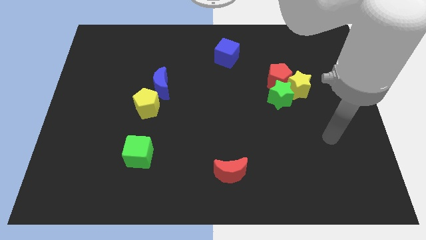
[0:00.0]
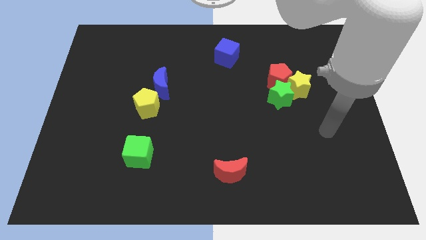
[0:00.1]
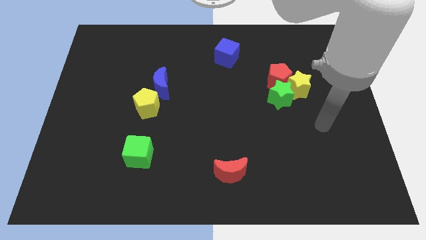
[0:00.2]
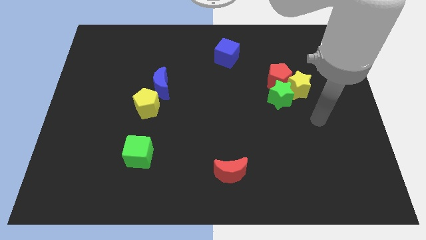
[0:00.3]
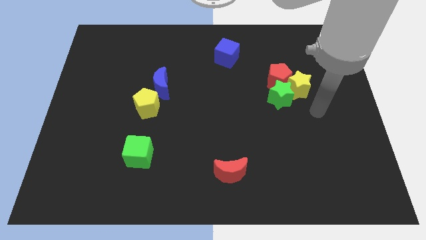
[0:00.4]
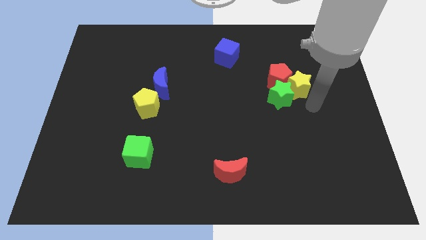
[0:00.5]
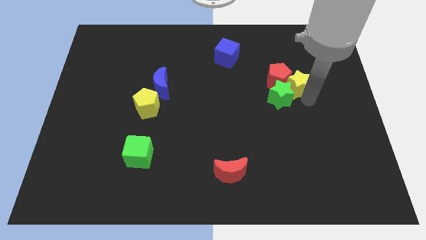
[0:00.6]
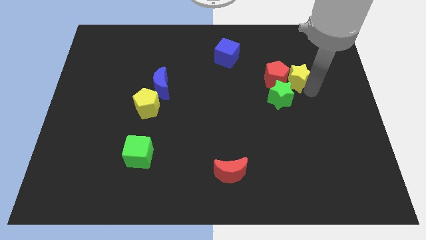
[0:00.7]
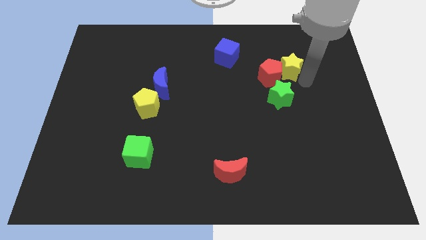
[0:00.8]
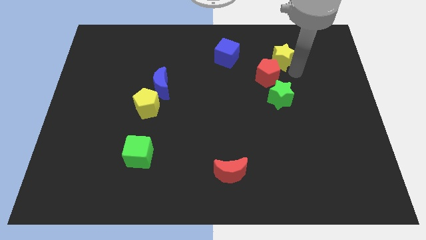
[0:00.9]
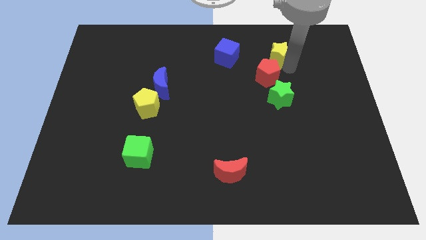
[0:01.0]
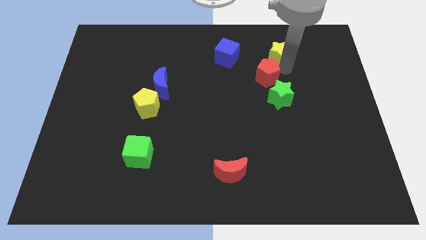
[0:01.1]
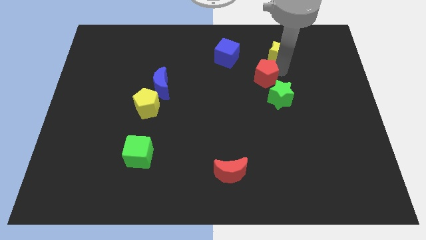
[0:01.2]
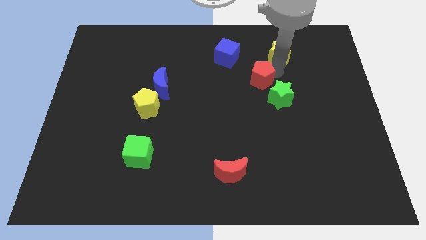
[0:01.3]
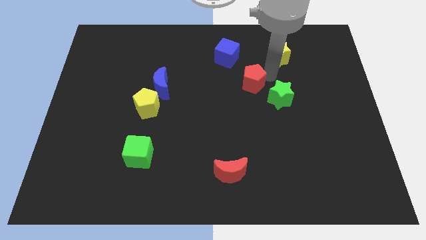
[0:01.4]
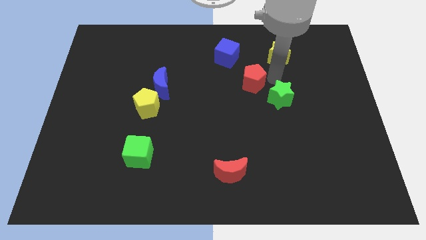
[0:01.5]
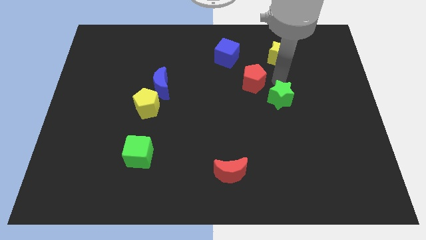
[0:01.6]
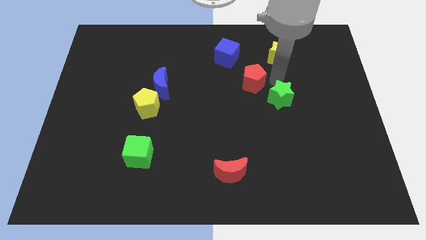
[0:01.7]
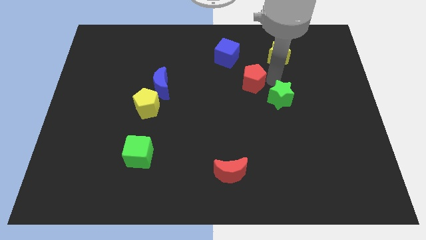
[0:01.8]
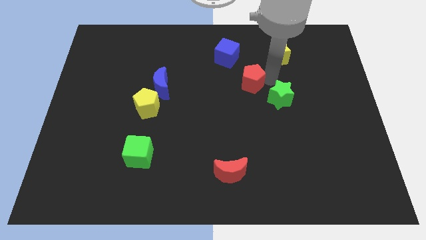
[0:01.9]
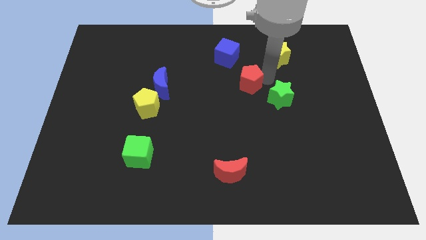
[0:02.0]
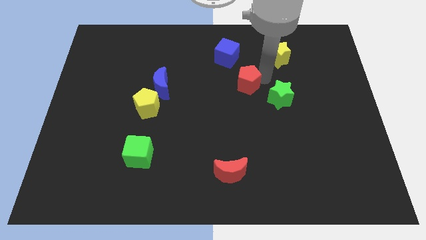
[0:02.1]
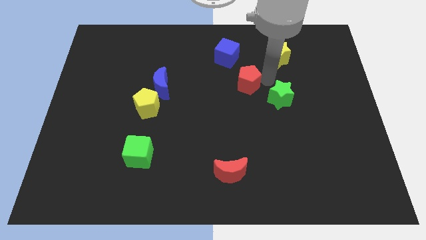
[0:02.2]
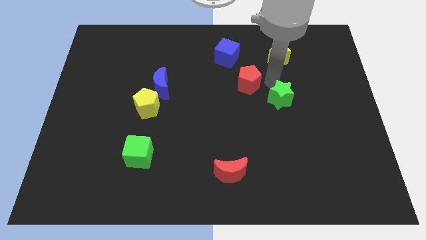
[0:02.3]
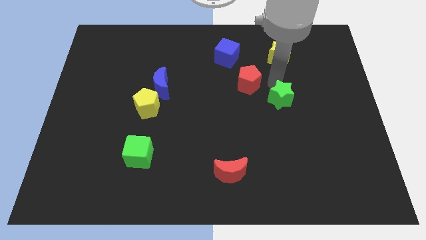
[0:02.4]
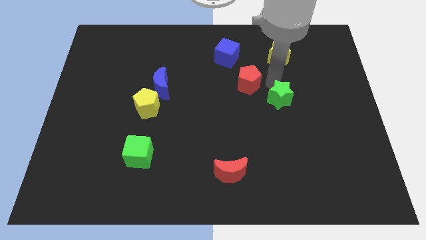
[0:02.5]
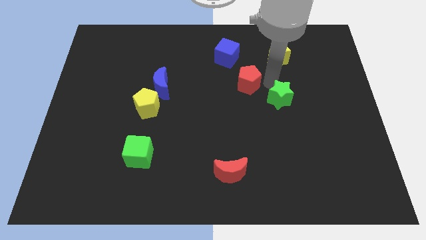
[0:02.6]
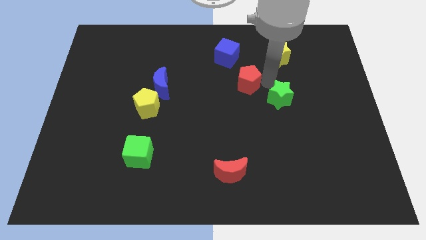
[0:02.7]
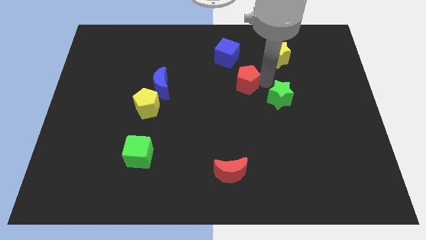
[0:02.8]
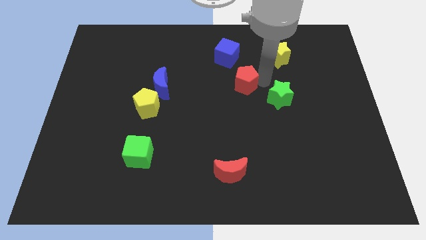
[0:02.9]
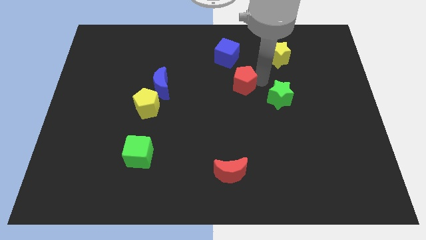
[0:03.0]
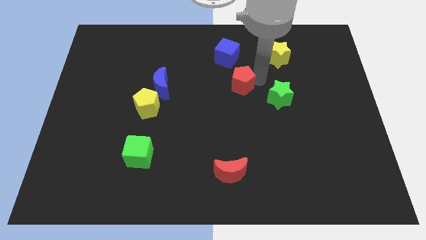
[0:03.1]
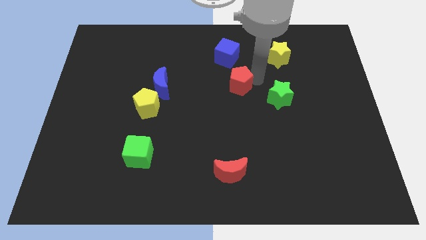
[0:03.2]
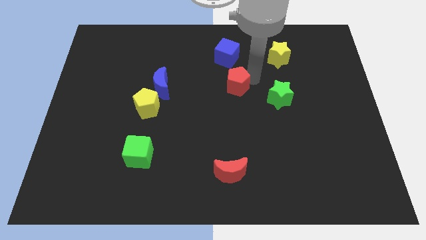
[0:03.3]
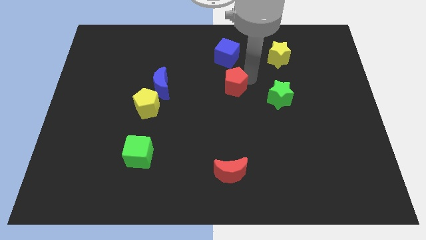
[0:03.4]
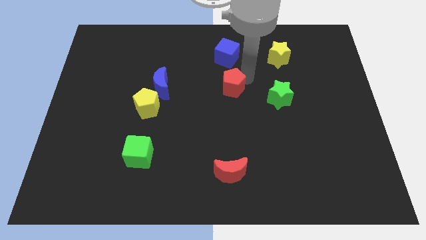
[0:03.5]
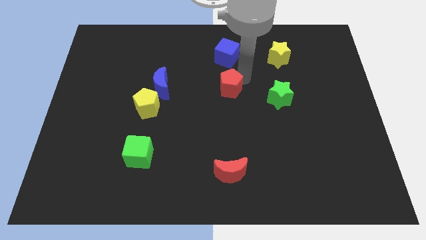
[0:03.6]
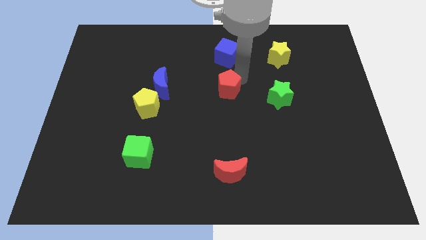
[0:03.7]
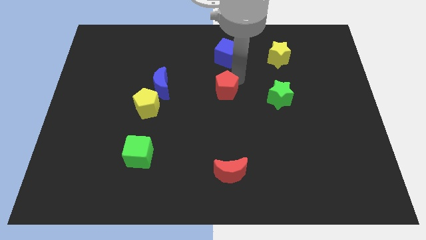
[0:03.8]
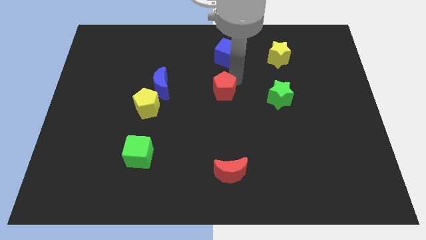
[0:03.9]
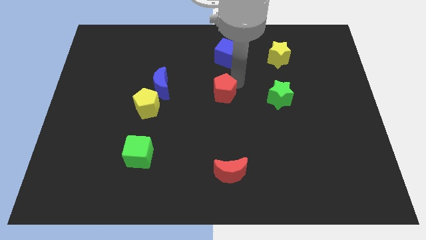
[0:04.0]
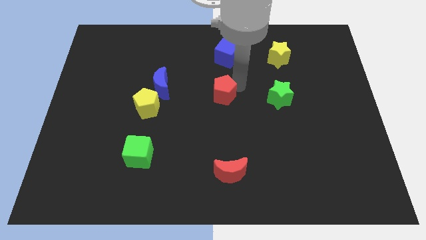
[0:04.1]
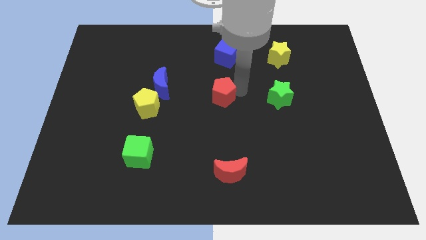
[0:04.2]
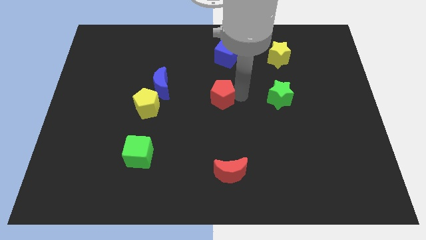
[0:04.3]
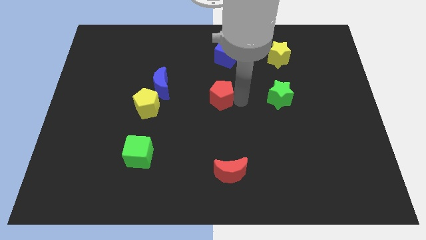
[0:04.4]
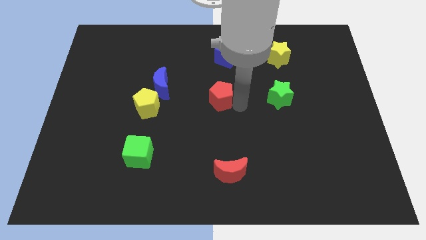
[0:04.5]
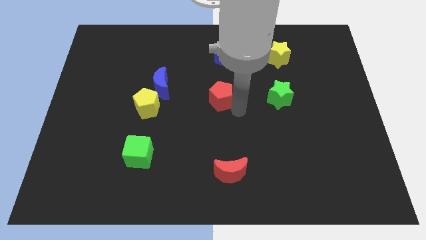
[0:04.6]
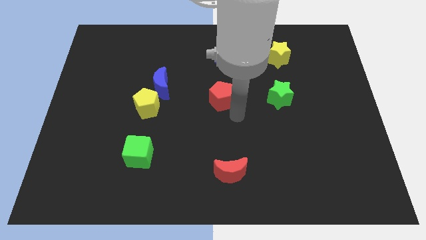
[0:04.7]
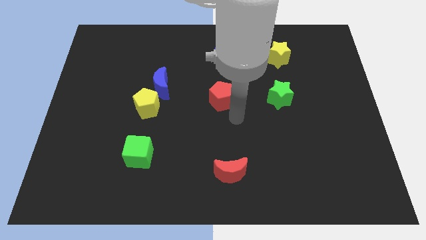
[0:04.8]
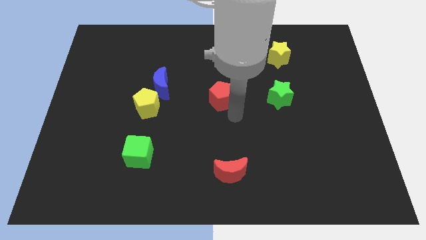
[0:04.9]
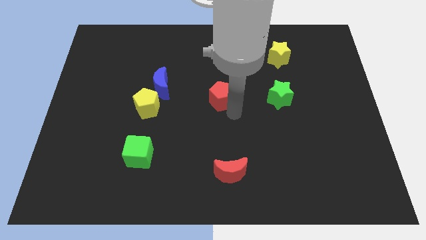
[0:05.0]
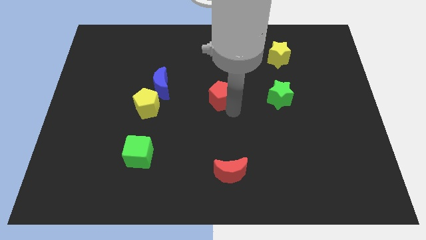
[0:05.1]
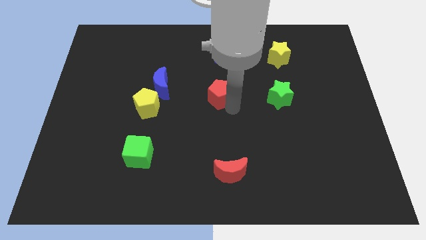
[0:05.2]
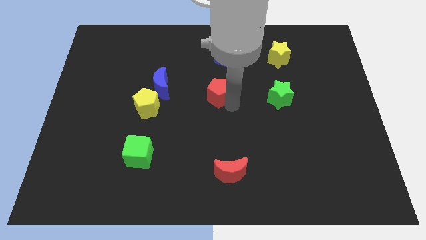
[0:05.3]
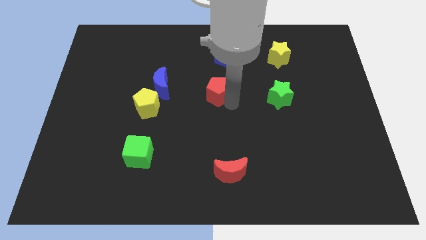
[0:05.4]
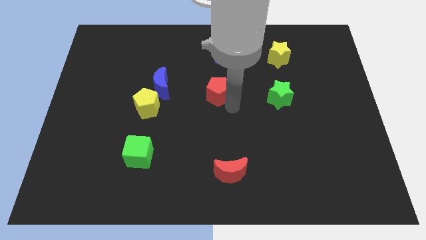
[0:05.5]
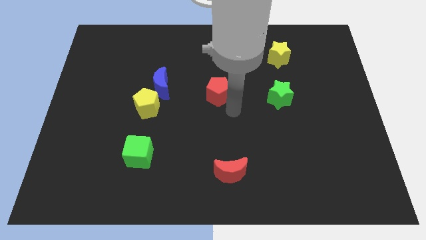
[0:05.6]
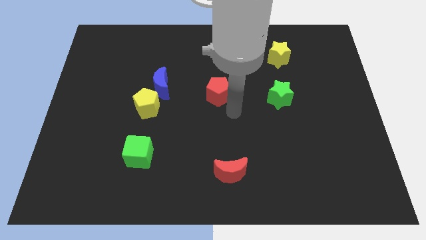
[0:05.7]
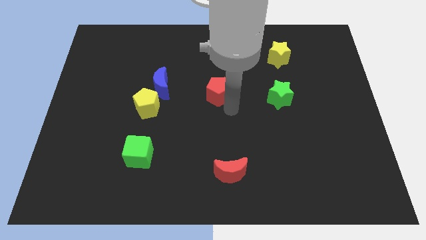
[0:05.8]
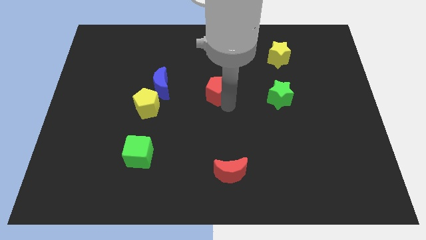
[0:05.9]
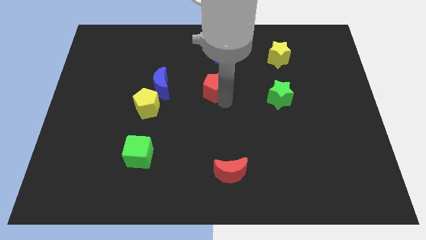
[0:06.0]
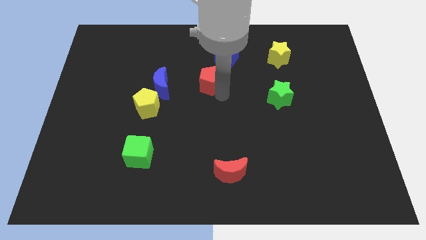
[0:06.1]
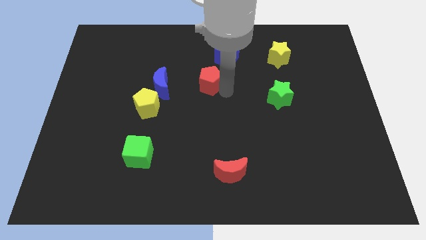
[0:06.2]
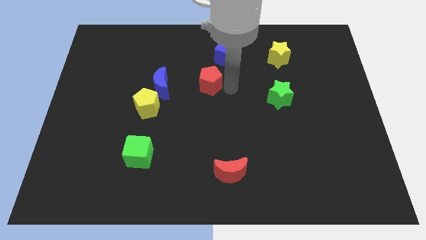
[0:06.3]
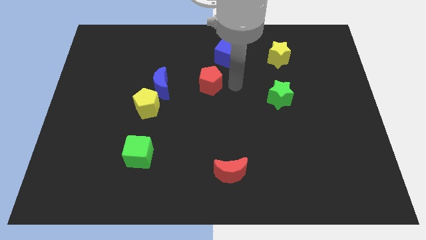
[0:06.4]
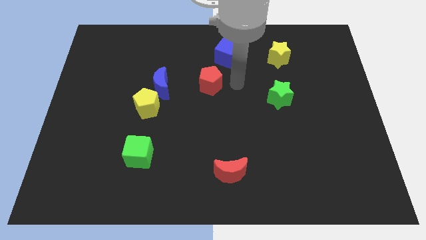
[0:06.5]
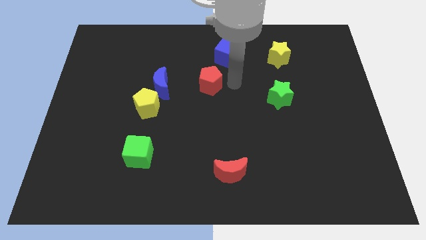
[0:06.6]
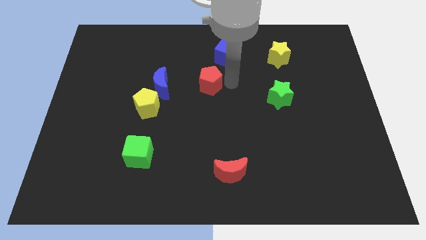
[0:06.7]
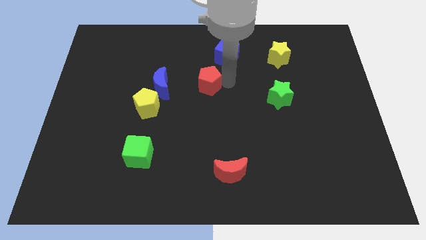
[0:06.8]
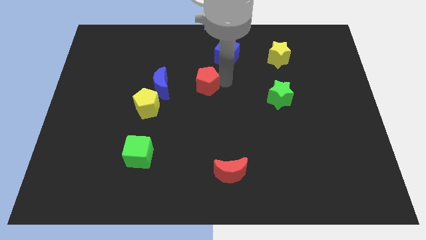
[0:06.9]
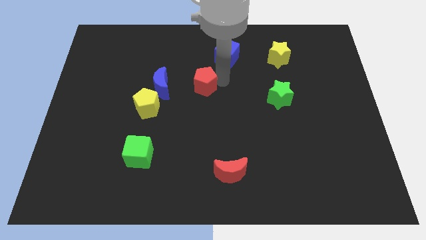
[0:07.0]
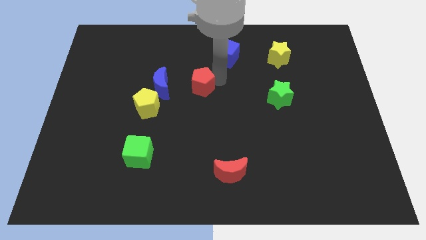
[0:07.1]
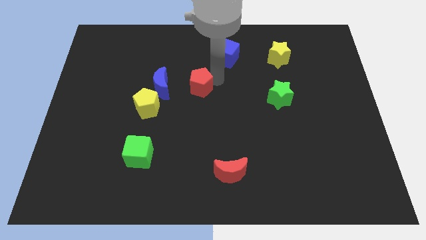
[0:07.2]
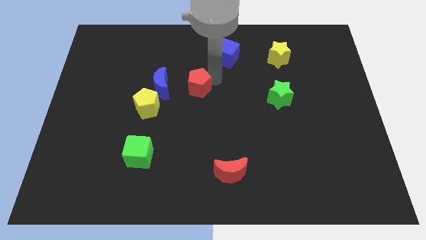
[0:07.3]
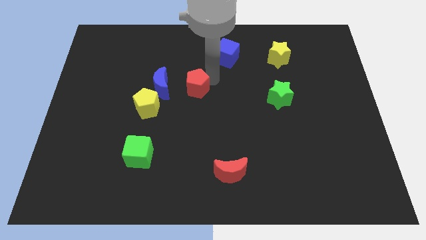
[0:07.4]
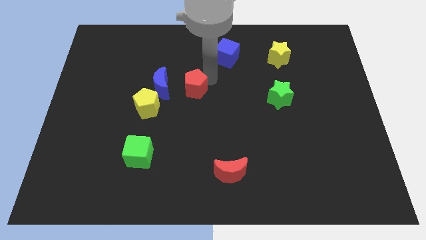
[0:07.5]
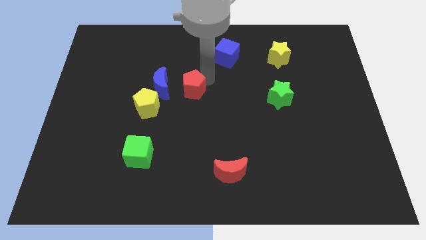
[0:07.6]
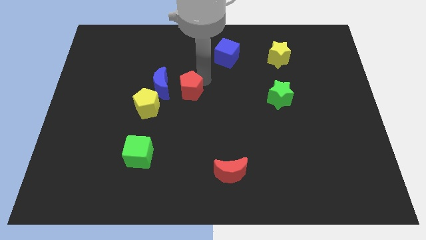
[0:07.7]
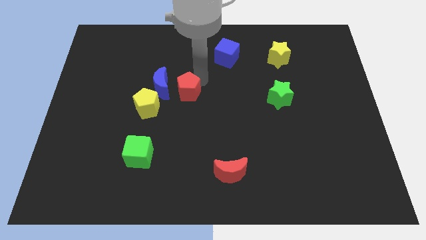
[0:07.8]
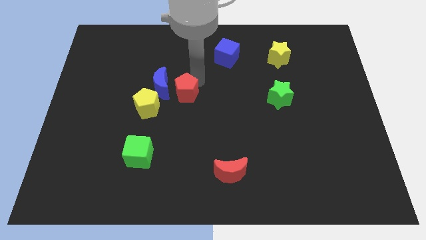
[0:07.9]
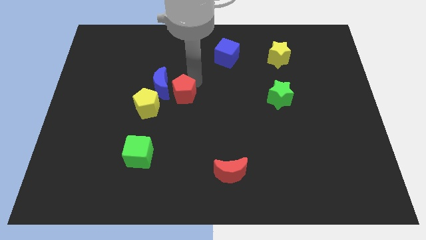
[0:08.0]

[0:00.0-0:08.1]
put the red pentagon to the blue moon
